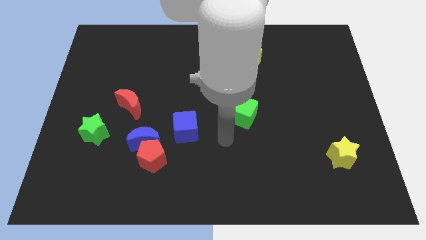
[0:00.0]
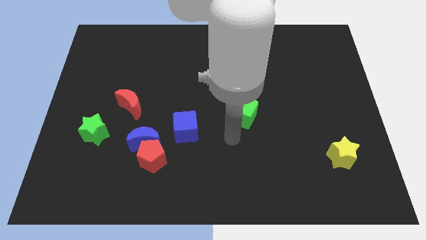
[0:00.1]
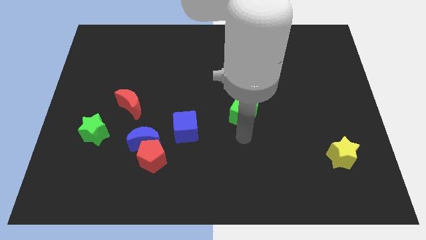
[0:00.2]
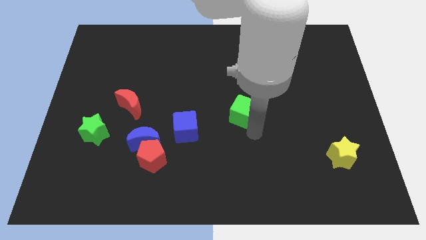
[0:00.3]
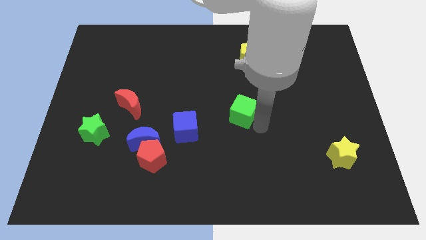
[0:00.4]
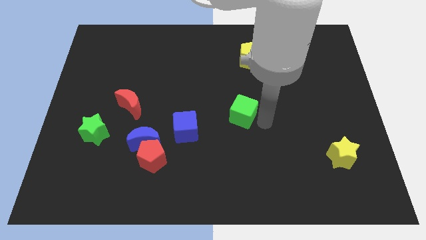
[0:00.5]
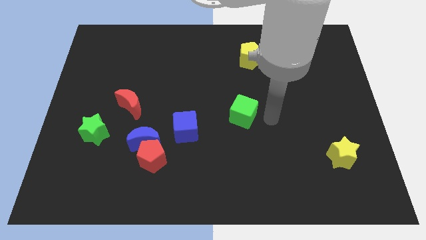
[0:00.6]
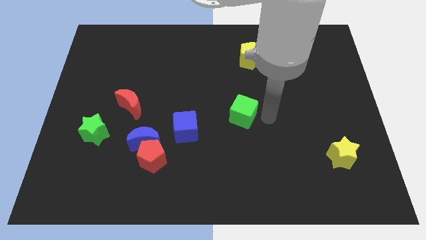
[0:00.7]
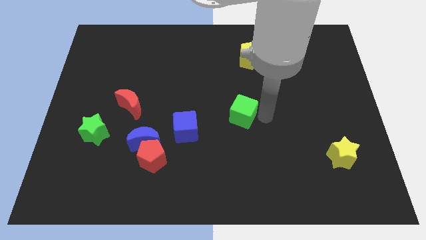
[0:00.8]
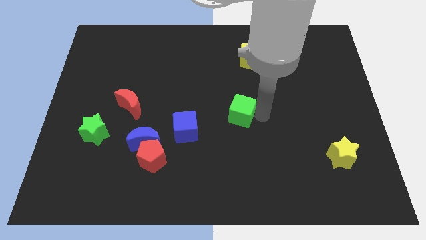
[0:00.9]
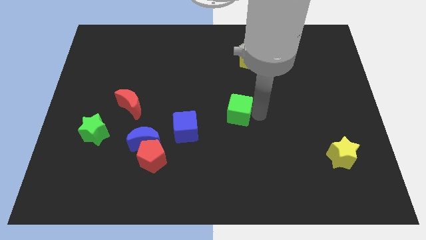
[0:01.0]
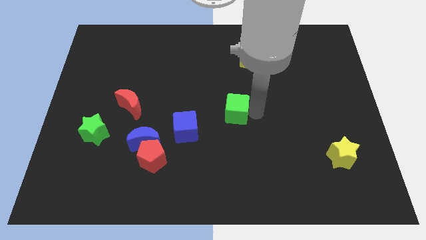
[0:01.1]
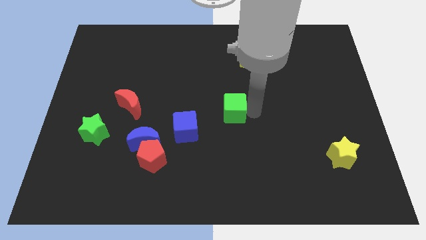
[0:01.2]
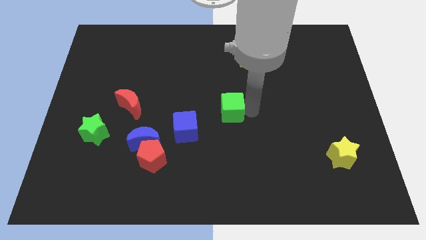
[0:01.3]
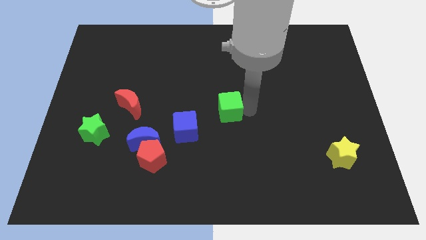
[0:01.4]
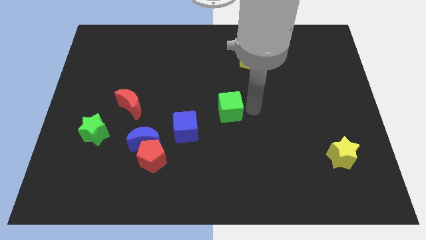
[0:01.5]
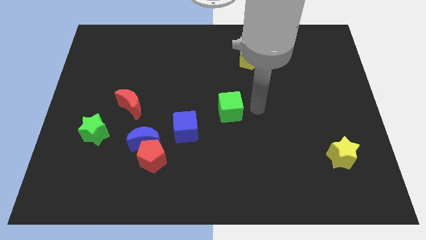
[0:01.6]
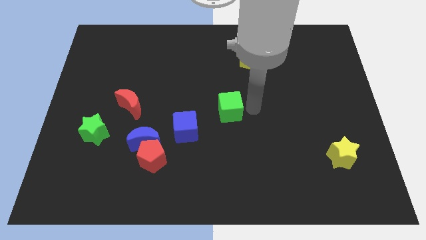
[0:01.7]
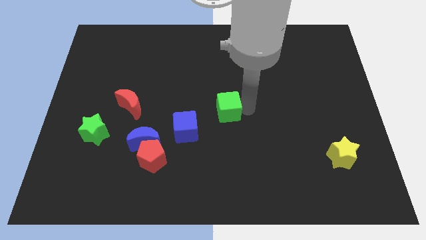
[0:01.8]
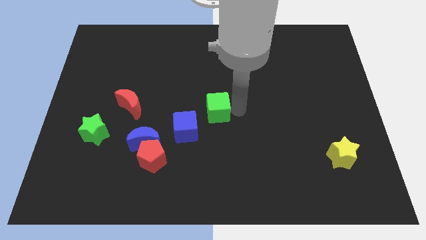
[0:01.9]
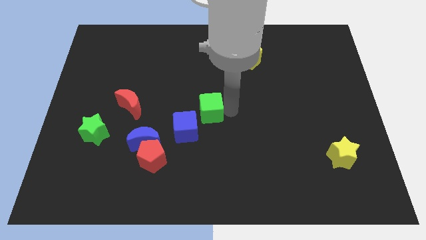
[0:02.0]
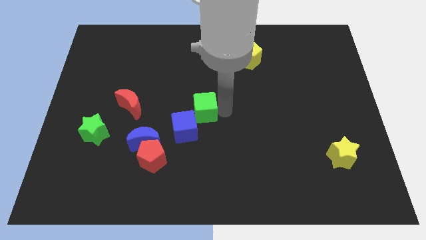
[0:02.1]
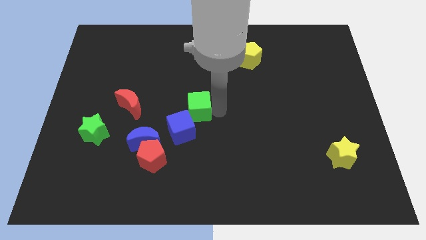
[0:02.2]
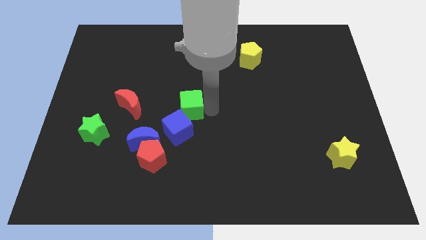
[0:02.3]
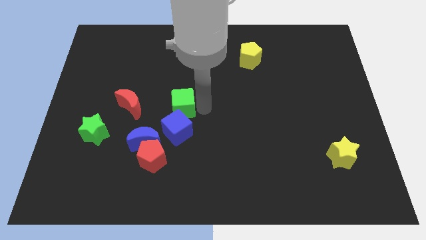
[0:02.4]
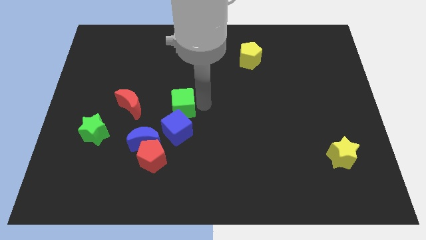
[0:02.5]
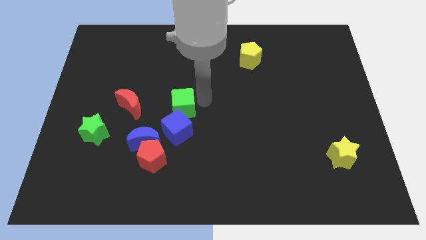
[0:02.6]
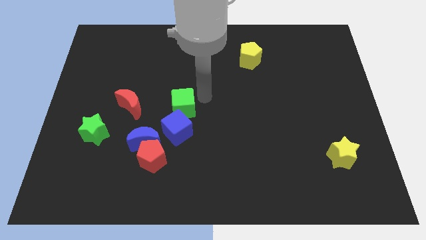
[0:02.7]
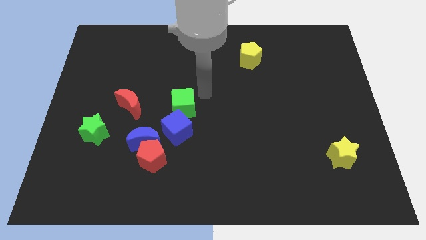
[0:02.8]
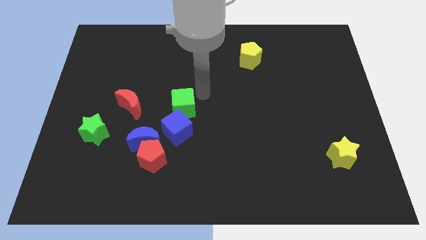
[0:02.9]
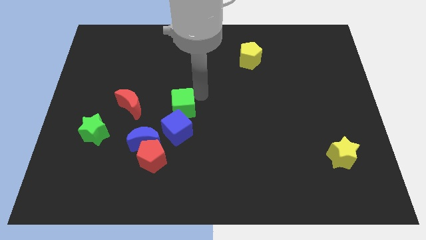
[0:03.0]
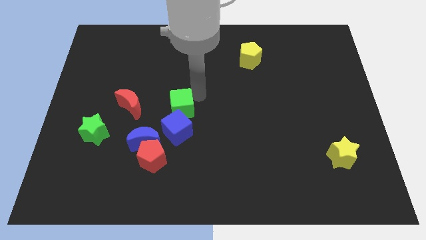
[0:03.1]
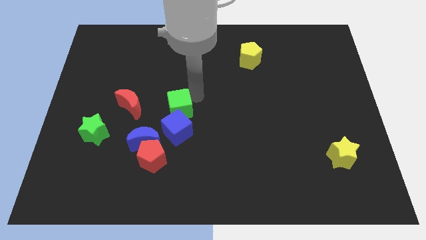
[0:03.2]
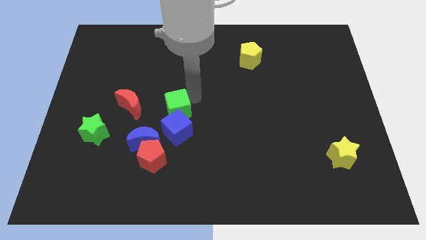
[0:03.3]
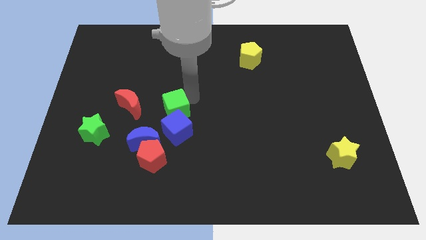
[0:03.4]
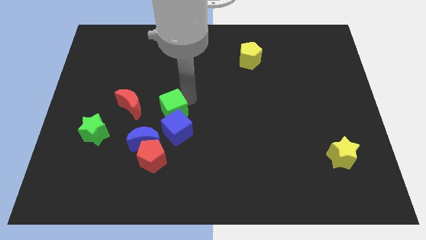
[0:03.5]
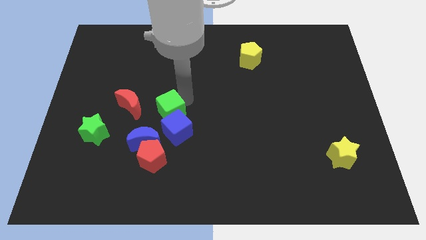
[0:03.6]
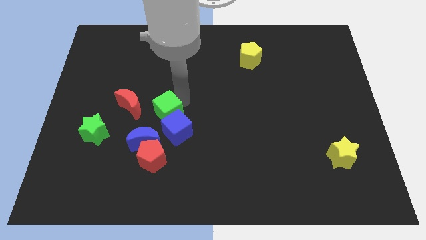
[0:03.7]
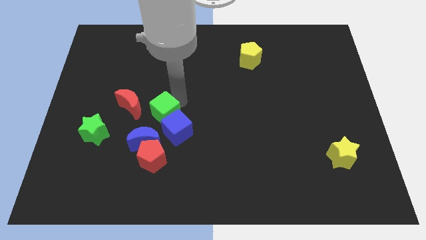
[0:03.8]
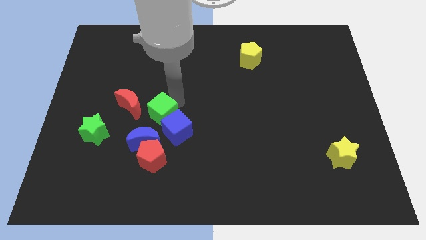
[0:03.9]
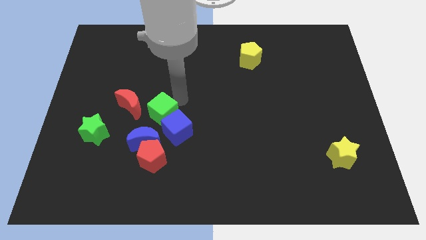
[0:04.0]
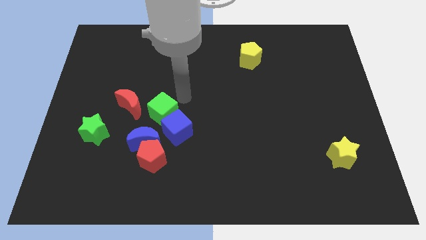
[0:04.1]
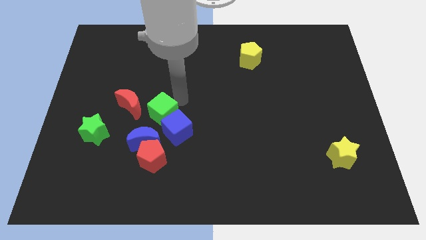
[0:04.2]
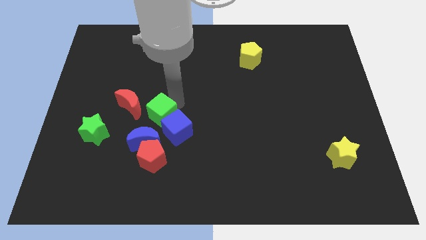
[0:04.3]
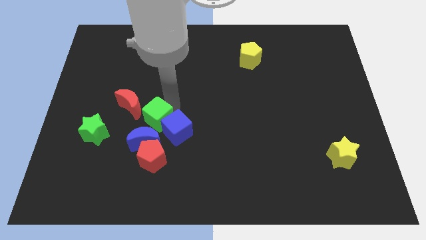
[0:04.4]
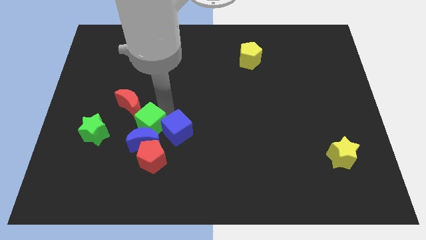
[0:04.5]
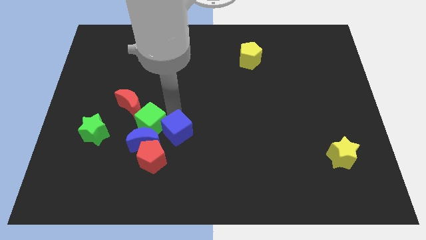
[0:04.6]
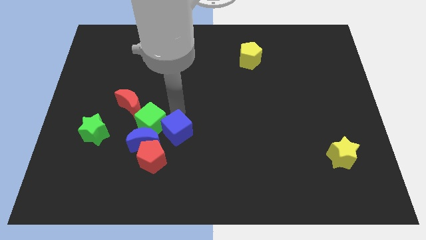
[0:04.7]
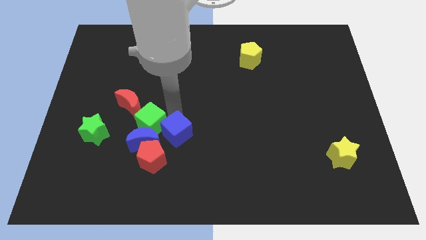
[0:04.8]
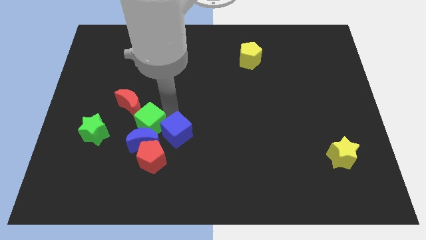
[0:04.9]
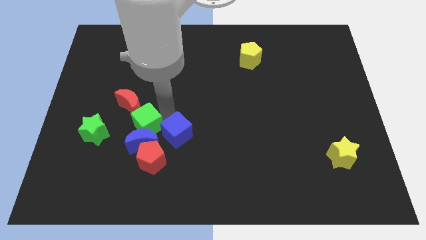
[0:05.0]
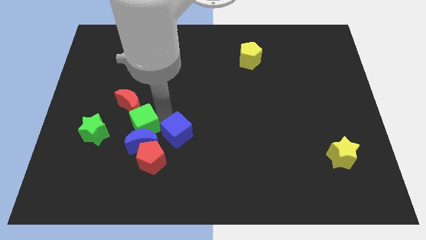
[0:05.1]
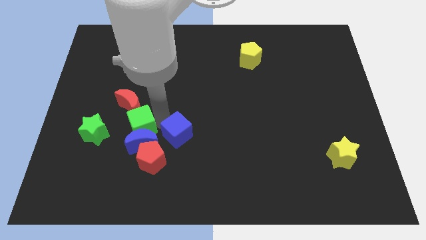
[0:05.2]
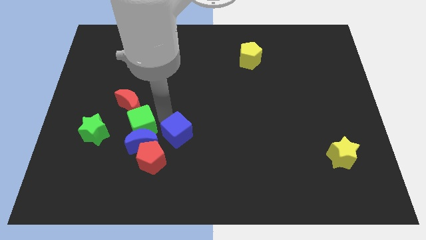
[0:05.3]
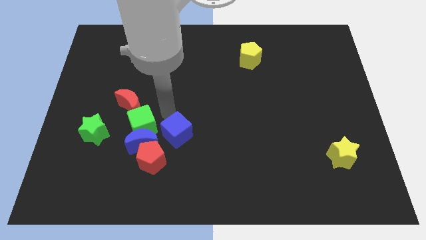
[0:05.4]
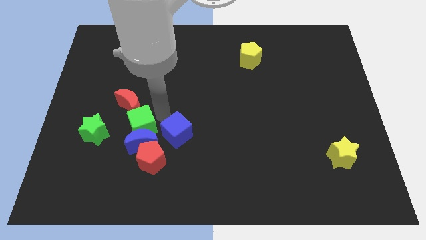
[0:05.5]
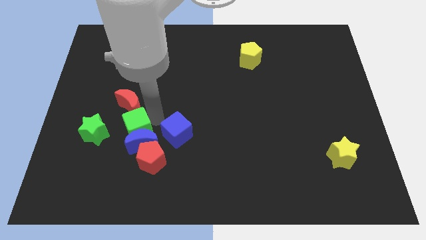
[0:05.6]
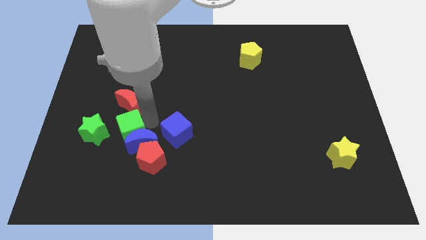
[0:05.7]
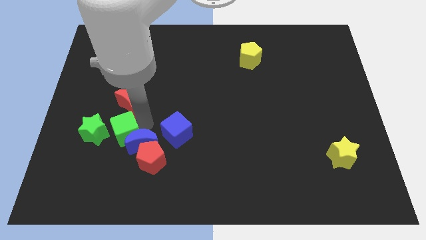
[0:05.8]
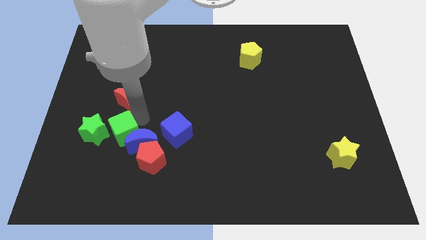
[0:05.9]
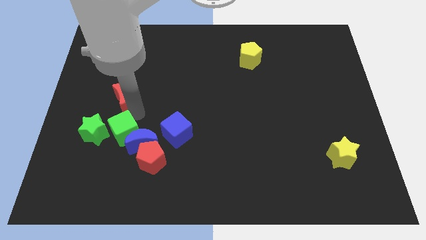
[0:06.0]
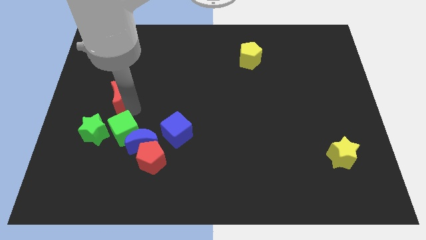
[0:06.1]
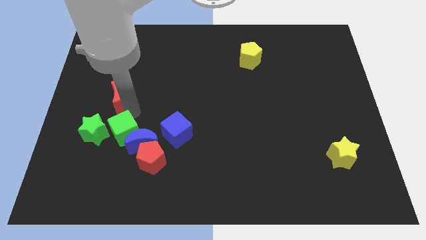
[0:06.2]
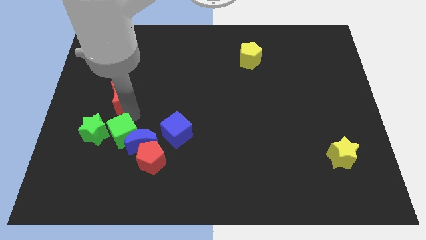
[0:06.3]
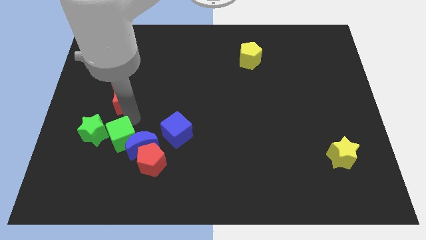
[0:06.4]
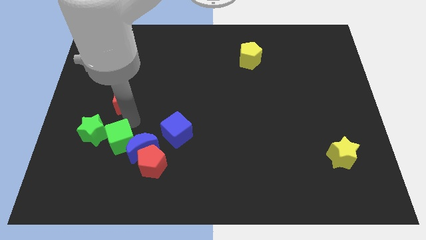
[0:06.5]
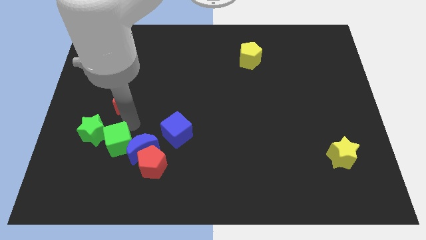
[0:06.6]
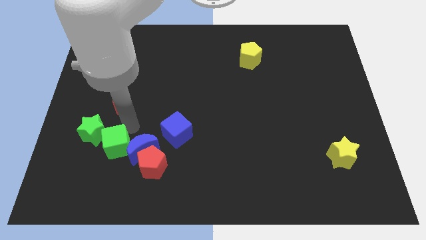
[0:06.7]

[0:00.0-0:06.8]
move the green cube to the bottom left of the blue moon

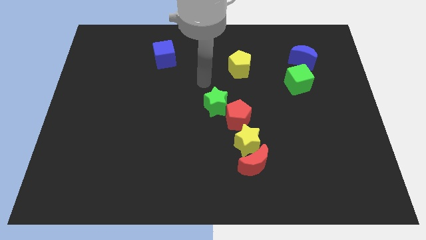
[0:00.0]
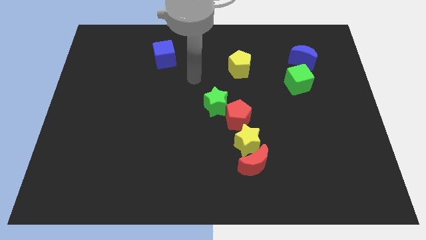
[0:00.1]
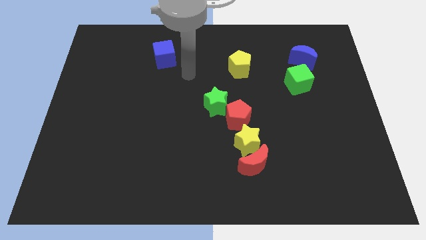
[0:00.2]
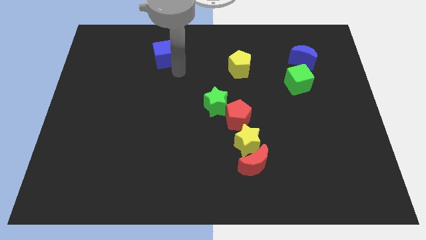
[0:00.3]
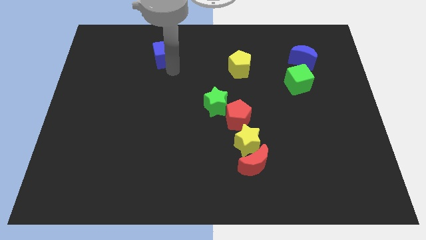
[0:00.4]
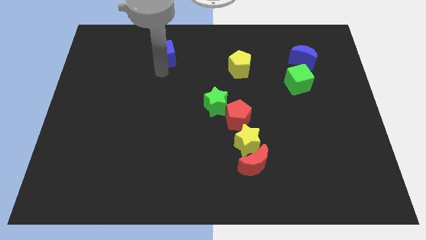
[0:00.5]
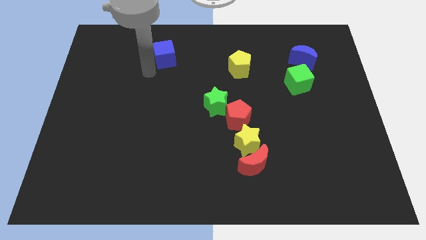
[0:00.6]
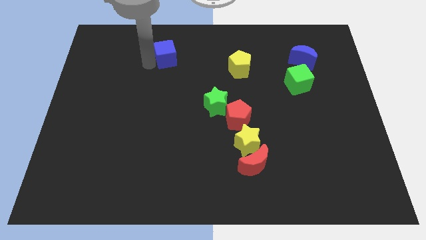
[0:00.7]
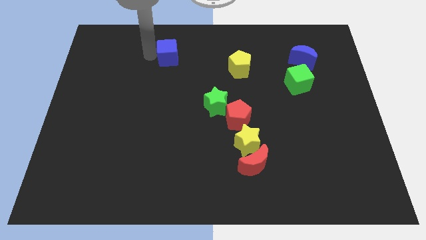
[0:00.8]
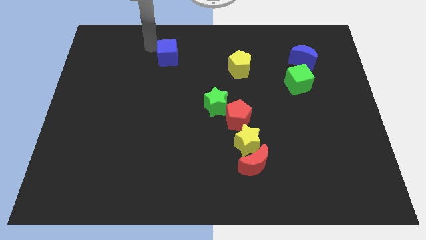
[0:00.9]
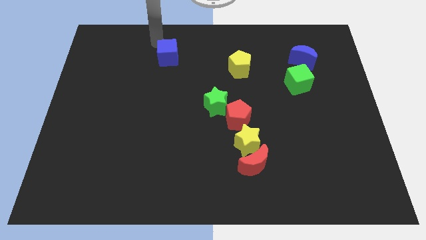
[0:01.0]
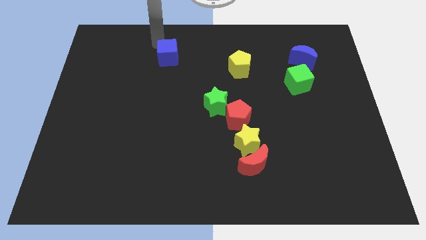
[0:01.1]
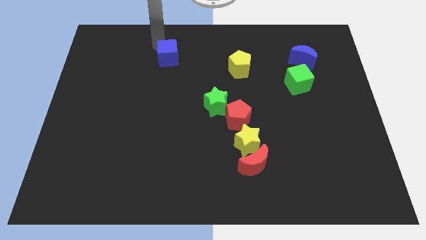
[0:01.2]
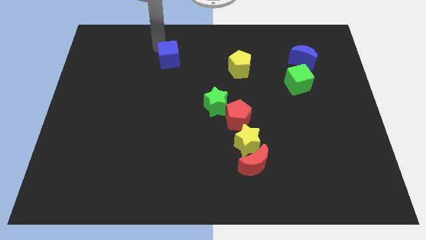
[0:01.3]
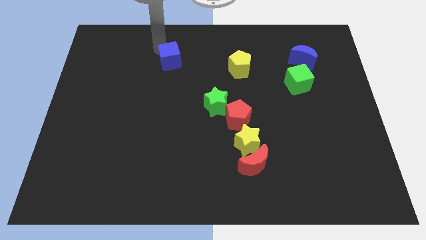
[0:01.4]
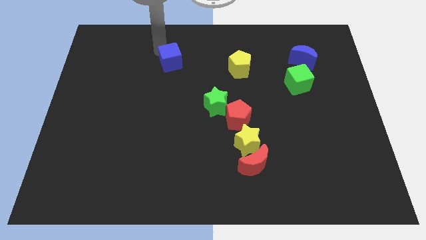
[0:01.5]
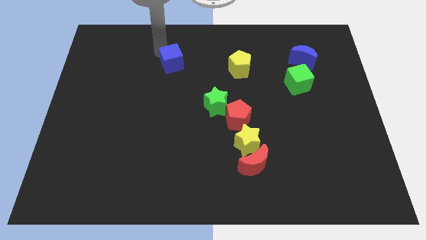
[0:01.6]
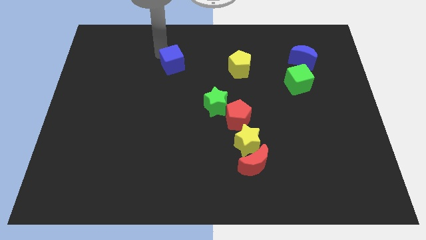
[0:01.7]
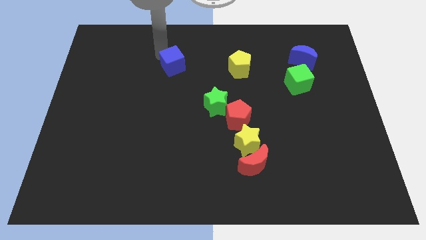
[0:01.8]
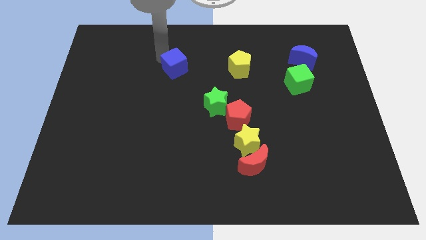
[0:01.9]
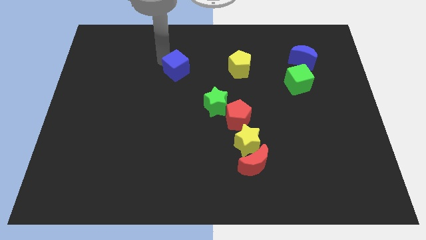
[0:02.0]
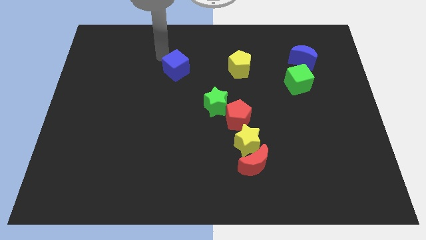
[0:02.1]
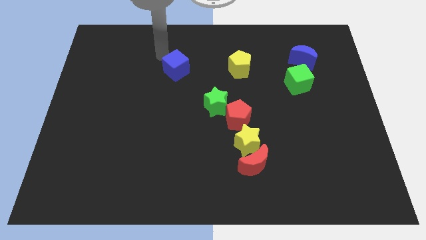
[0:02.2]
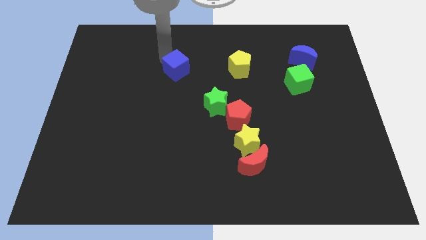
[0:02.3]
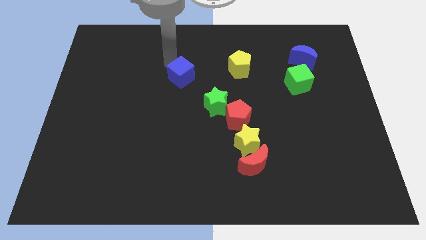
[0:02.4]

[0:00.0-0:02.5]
push the blue cube to the top left of the green star
